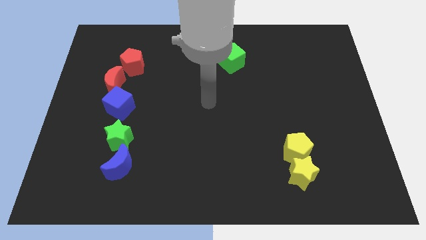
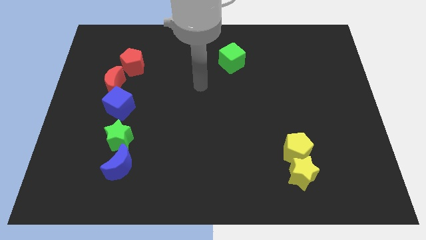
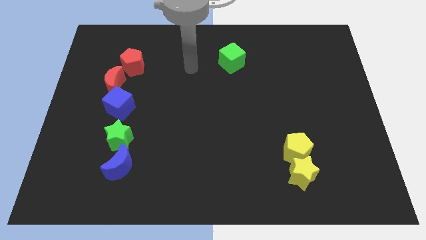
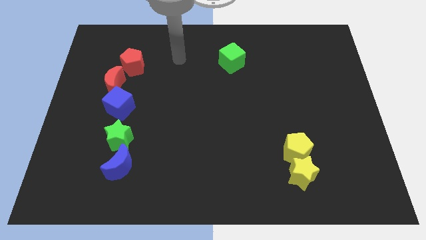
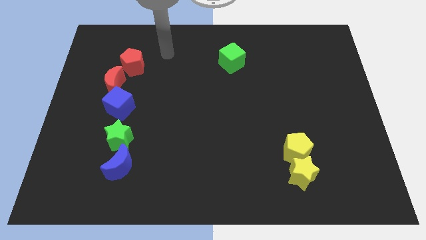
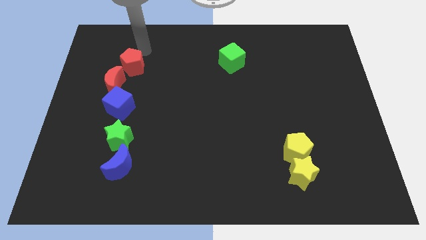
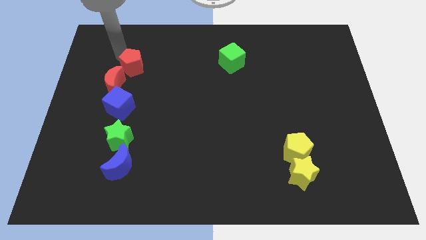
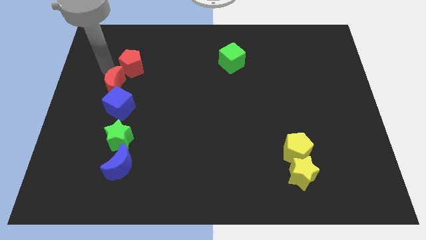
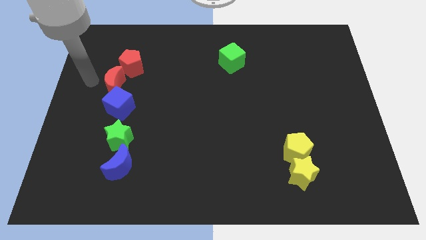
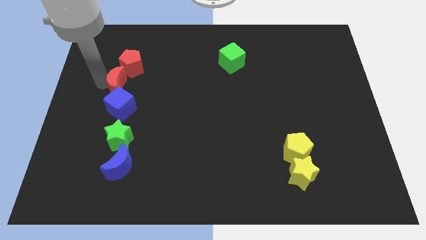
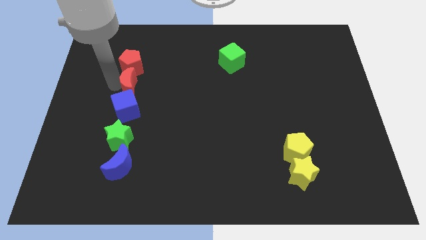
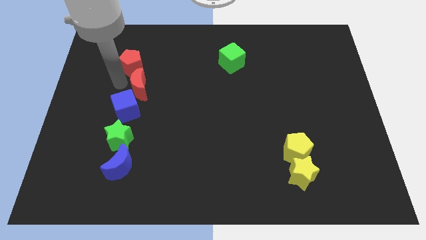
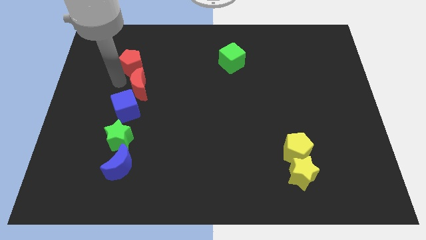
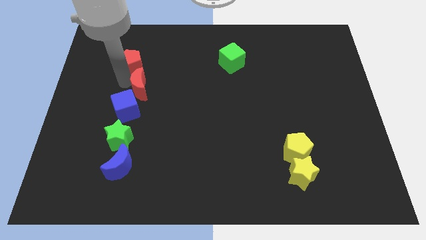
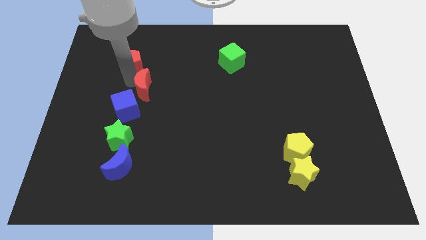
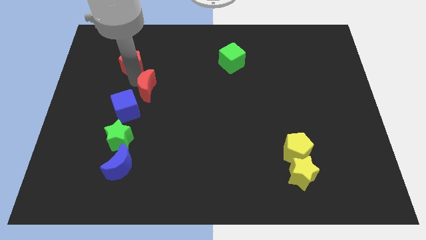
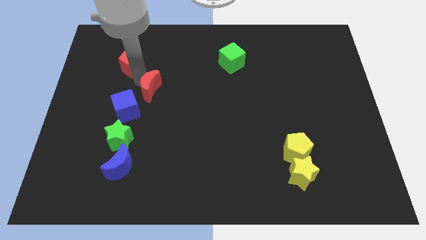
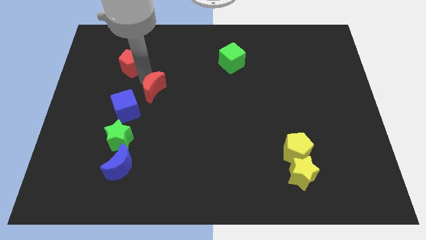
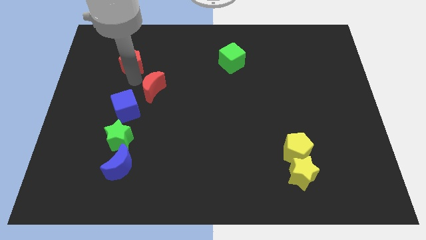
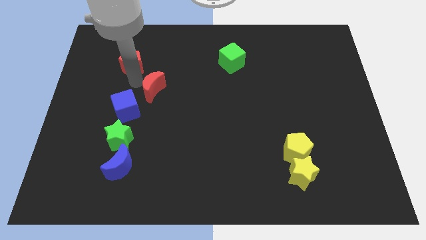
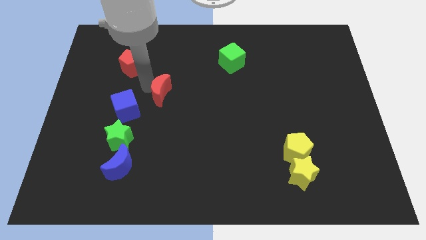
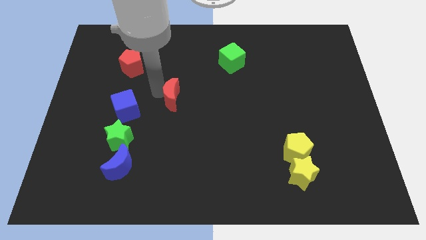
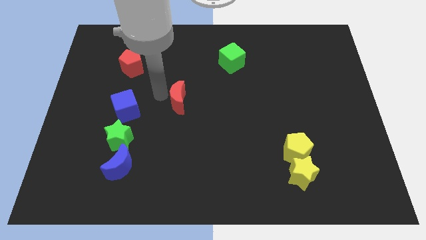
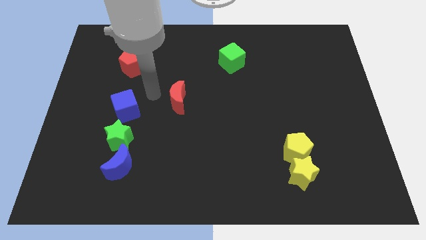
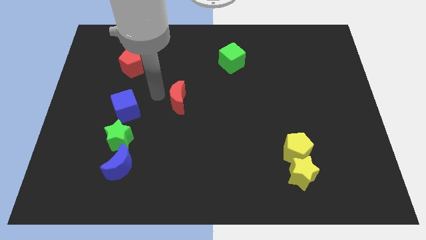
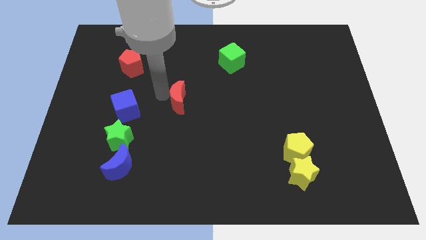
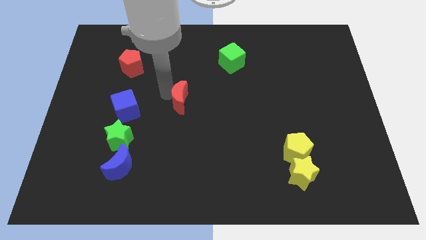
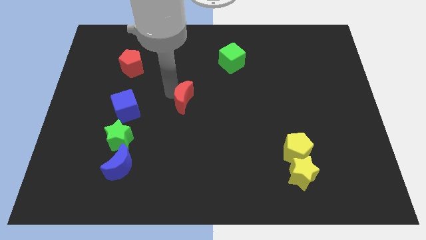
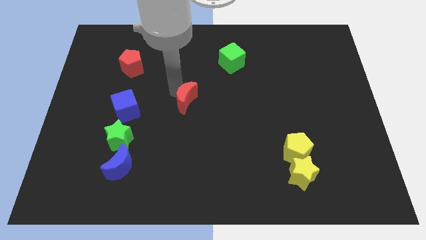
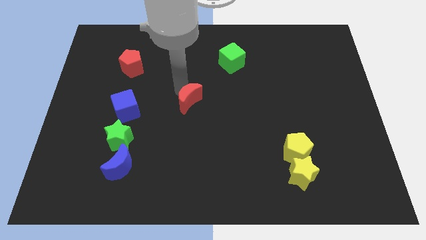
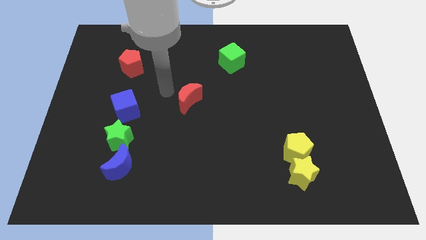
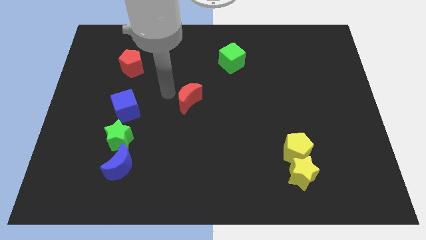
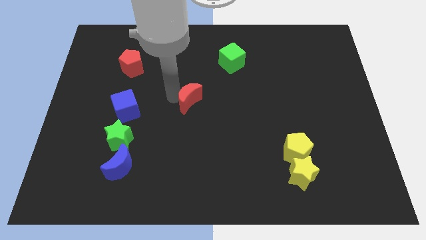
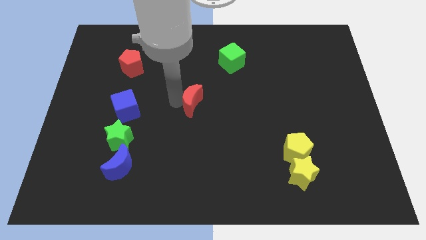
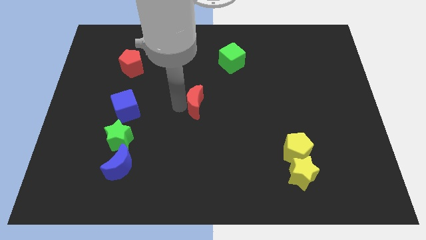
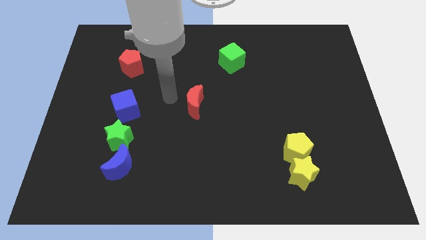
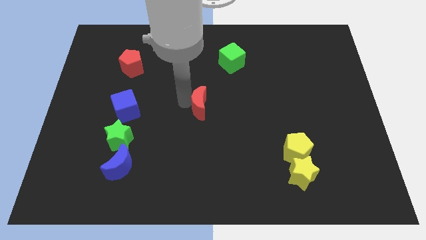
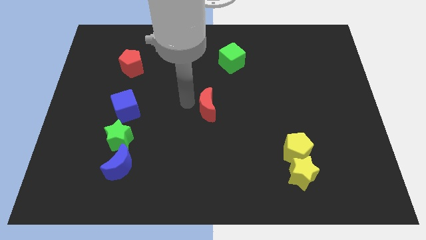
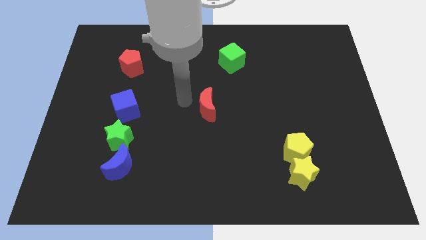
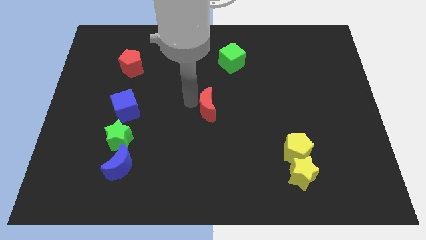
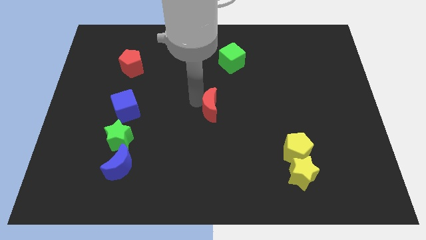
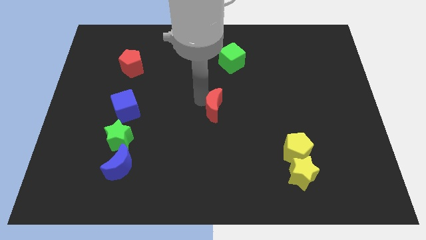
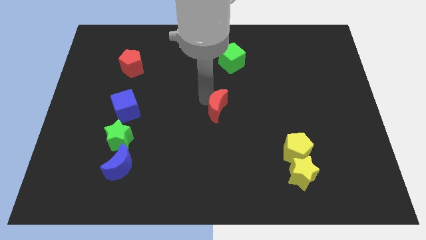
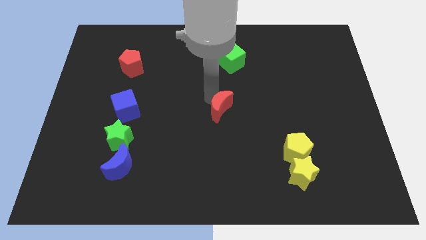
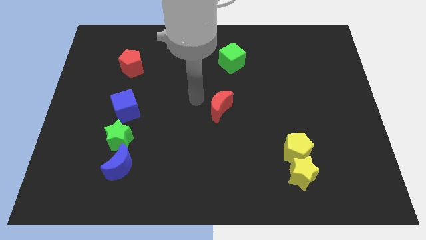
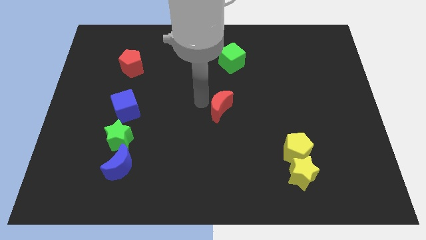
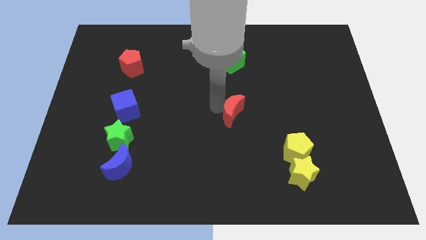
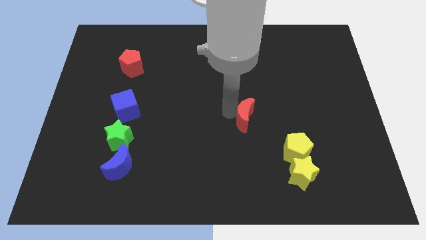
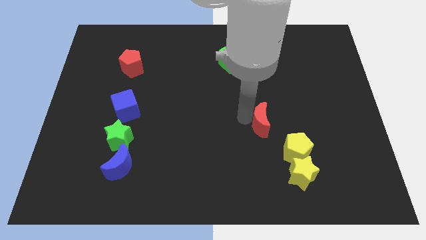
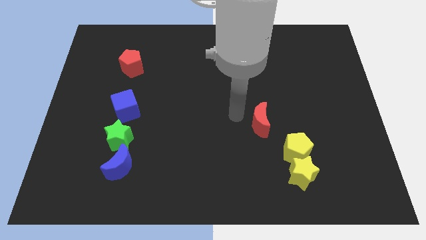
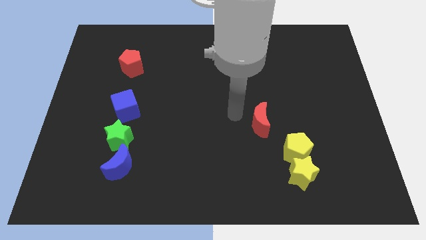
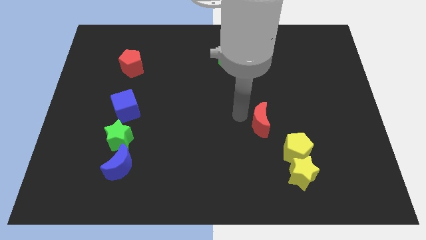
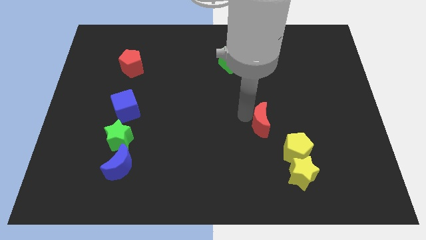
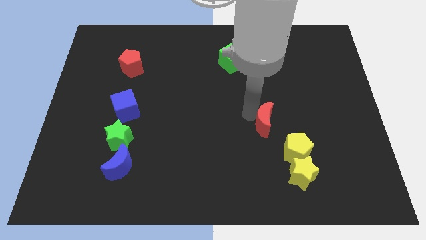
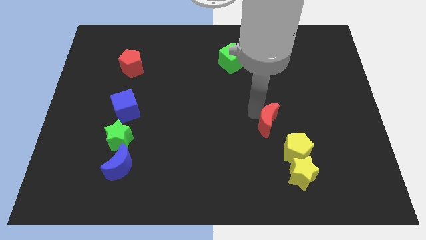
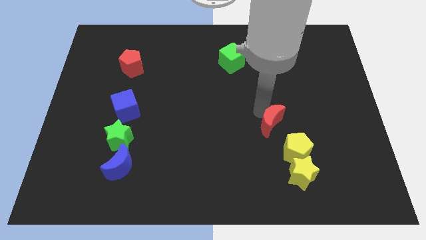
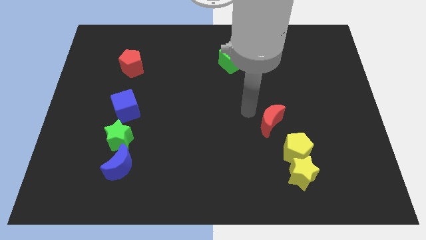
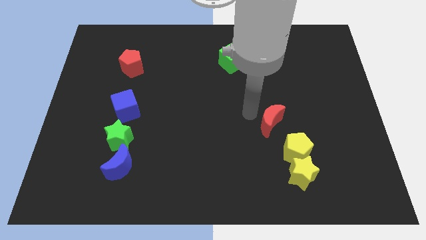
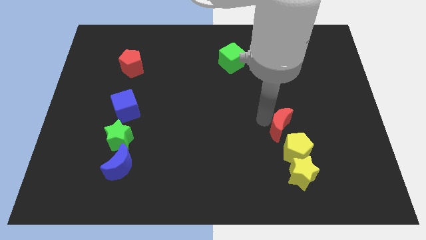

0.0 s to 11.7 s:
move the red moon above the yellow star
